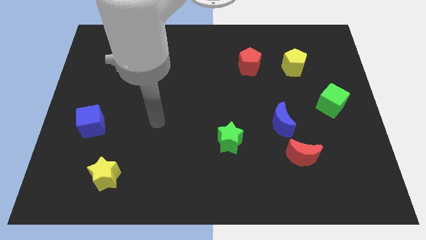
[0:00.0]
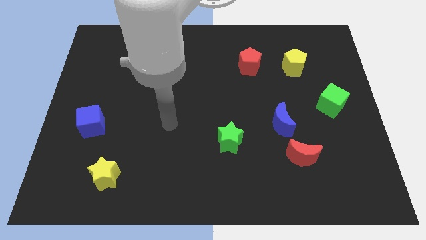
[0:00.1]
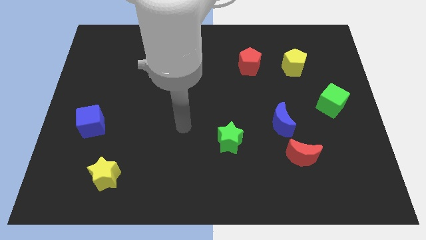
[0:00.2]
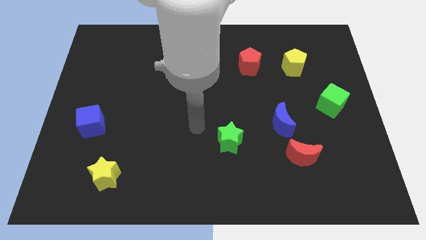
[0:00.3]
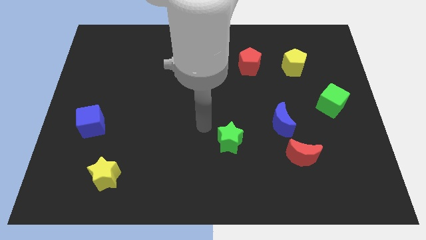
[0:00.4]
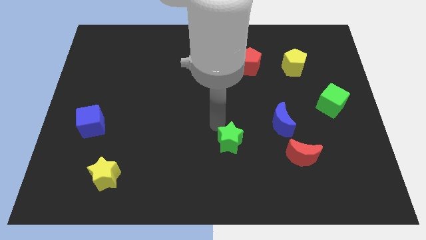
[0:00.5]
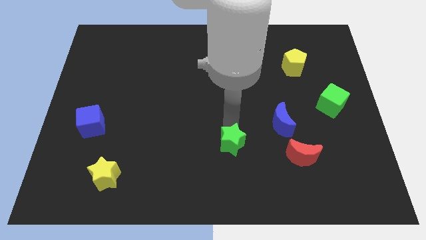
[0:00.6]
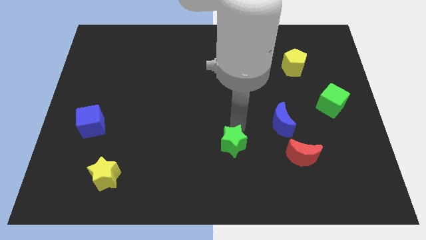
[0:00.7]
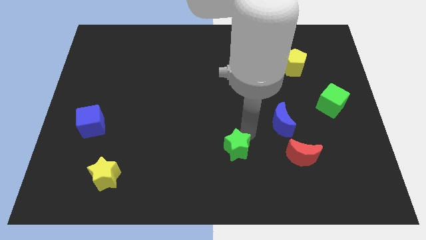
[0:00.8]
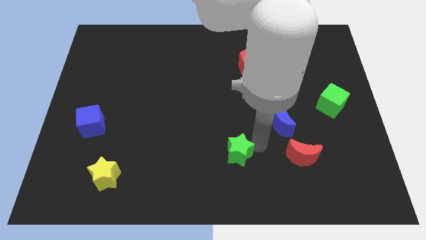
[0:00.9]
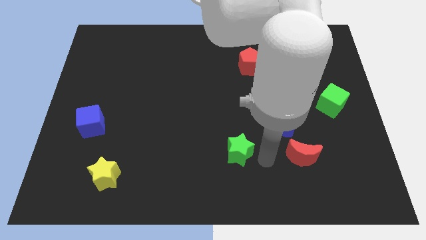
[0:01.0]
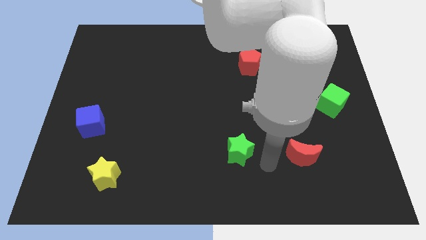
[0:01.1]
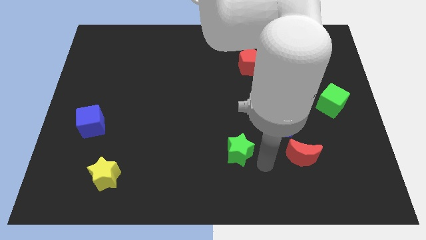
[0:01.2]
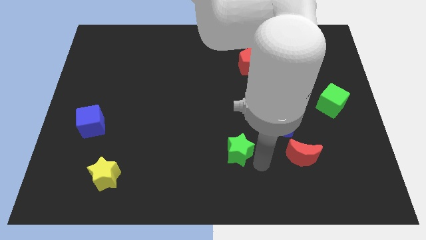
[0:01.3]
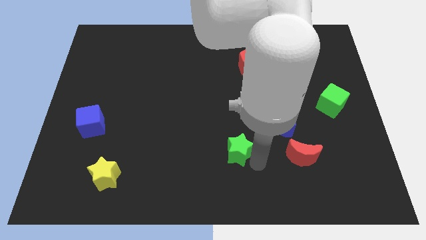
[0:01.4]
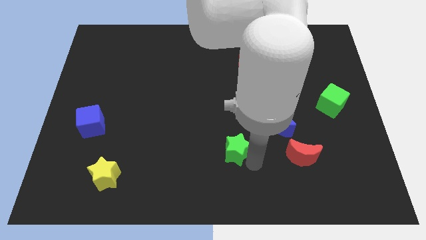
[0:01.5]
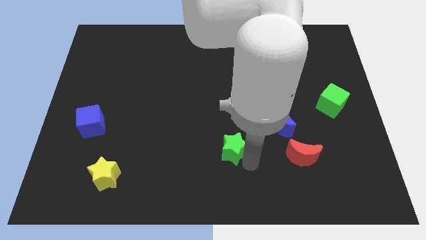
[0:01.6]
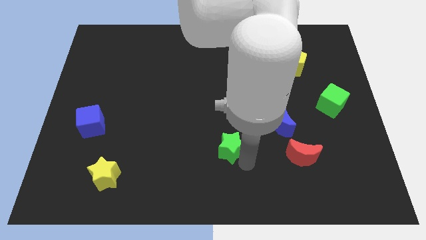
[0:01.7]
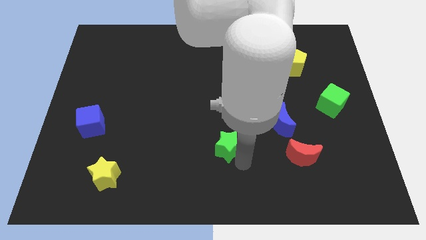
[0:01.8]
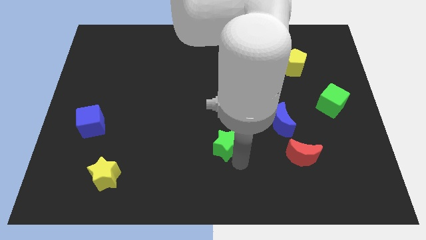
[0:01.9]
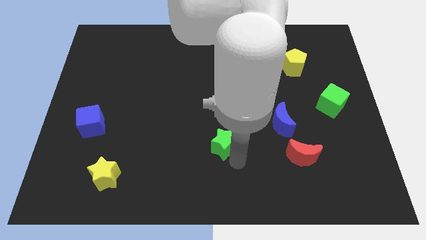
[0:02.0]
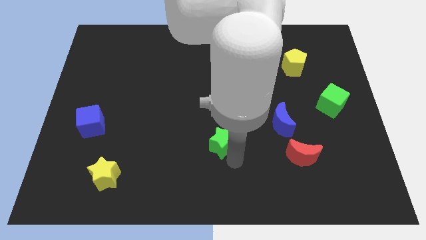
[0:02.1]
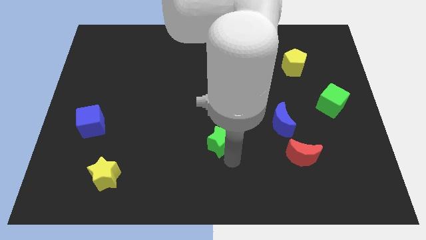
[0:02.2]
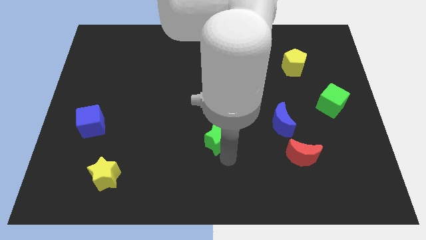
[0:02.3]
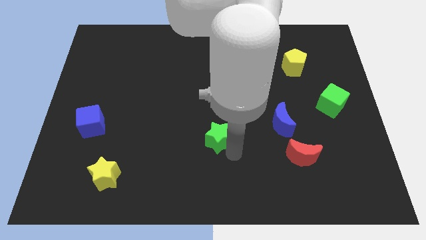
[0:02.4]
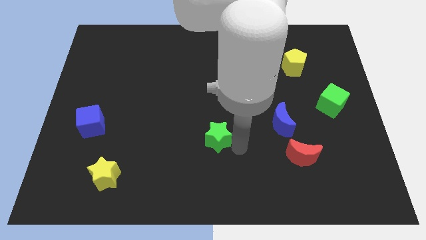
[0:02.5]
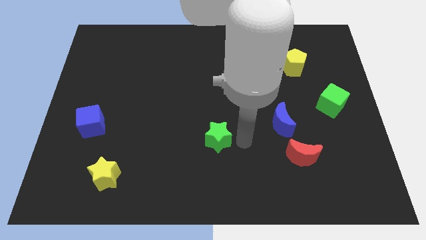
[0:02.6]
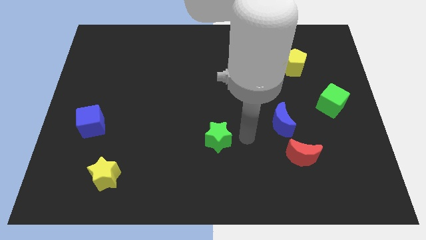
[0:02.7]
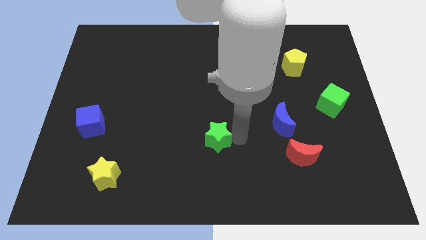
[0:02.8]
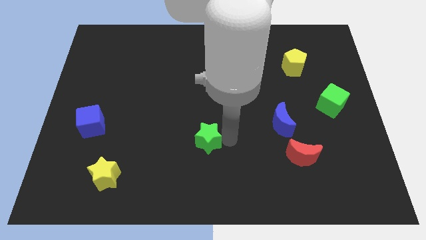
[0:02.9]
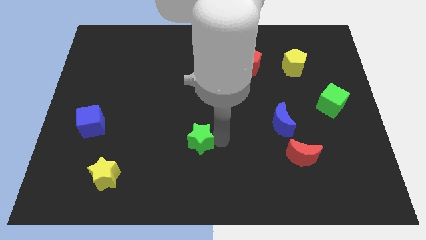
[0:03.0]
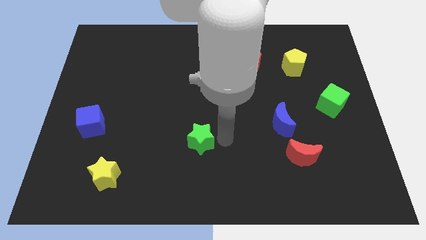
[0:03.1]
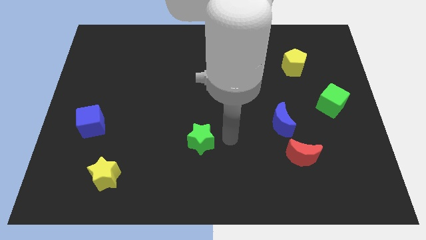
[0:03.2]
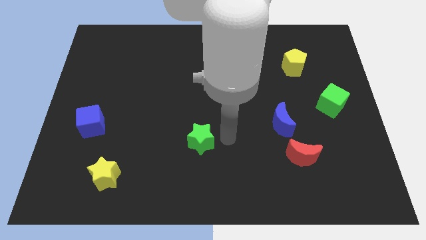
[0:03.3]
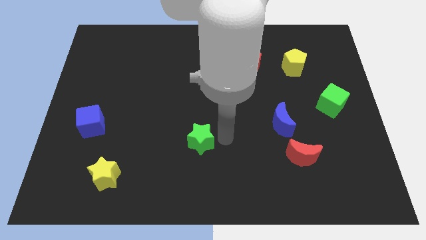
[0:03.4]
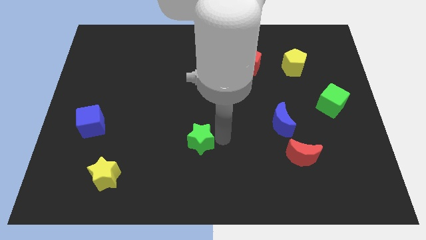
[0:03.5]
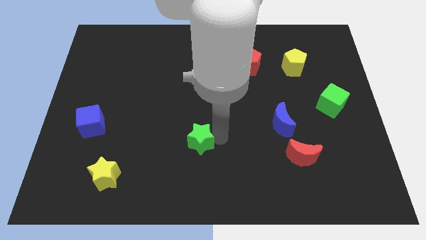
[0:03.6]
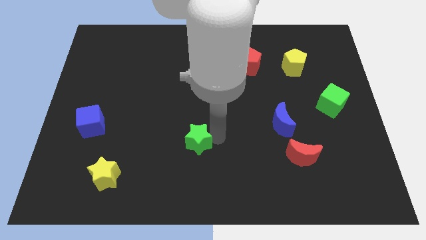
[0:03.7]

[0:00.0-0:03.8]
slightly push the green star left

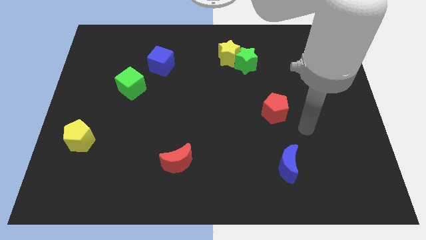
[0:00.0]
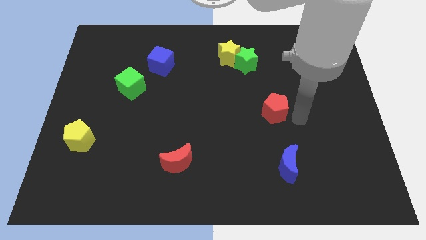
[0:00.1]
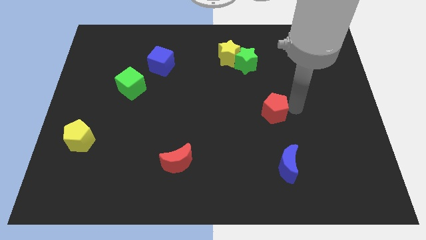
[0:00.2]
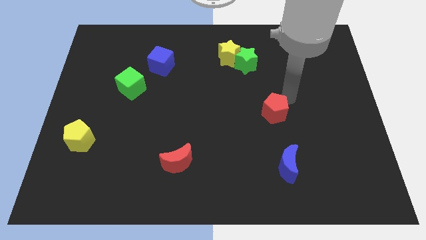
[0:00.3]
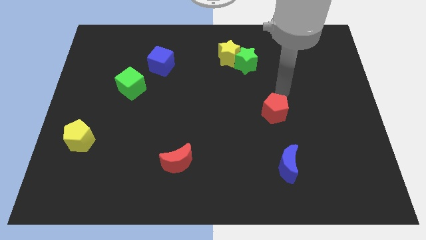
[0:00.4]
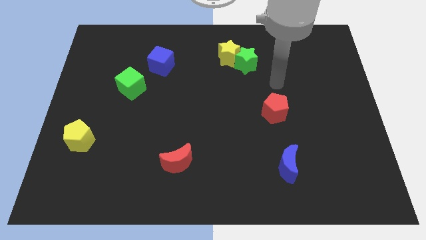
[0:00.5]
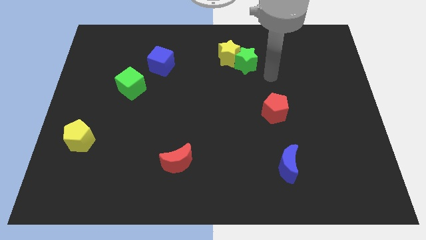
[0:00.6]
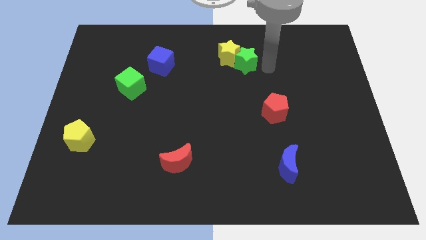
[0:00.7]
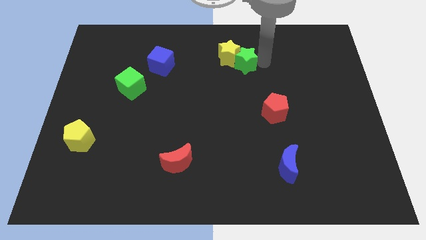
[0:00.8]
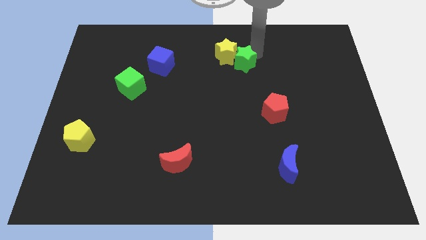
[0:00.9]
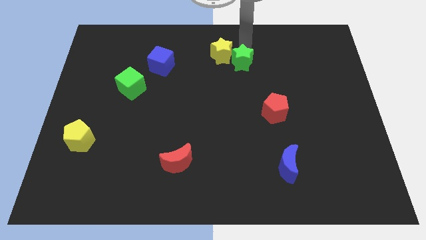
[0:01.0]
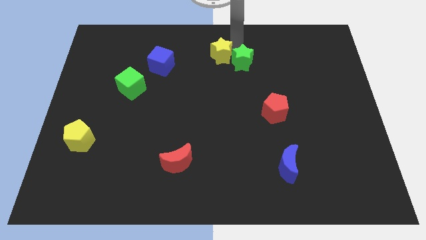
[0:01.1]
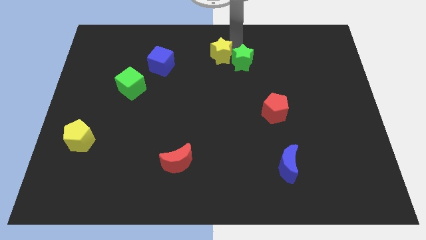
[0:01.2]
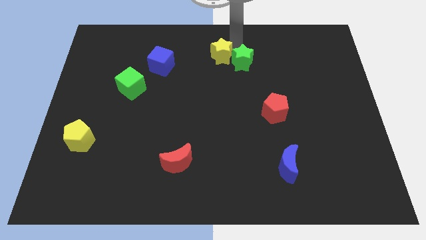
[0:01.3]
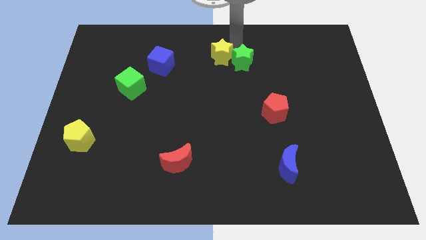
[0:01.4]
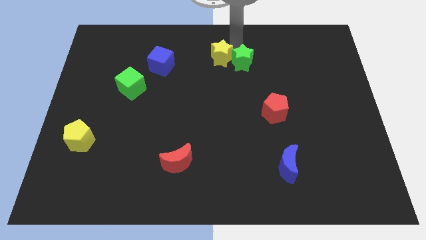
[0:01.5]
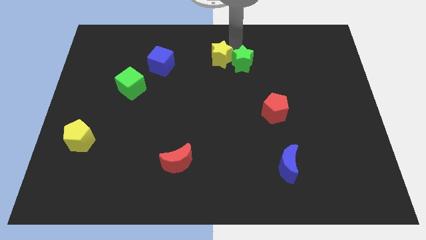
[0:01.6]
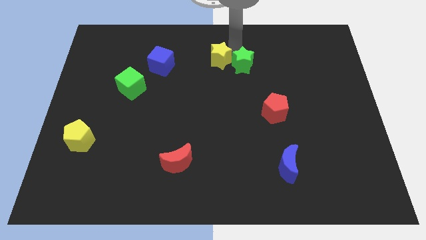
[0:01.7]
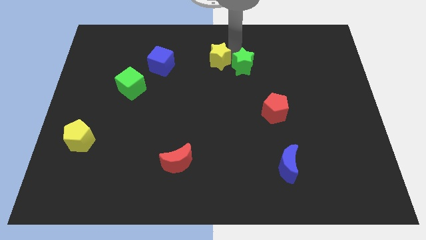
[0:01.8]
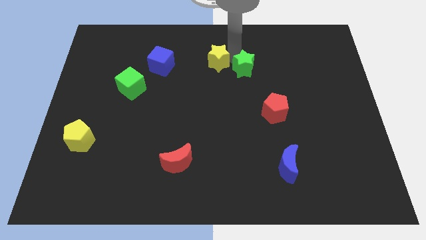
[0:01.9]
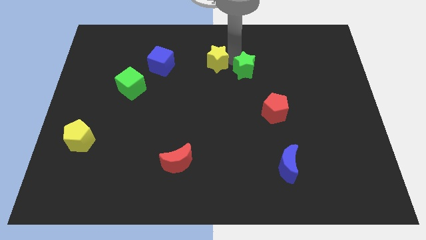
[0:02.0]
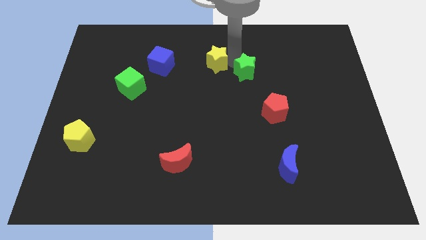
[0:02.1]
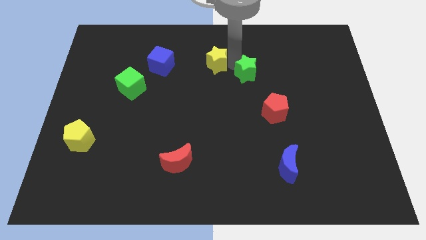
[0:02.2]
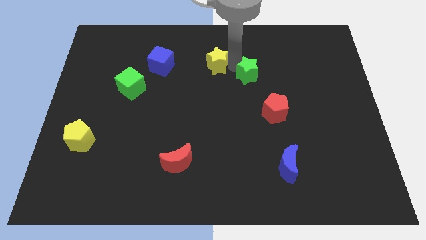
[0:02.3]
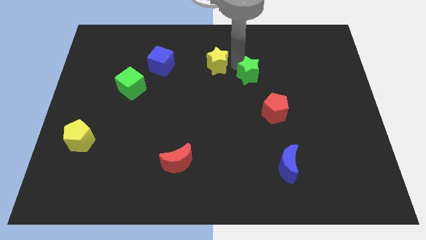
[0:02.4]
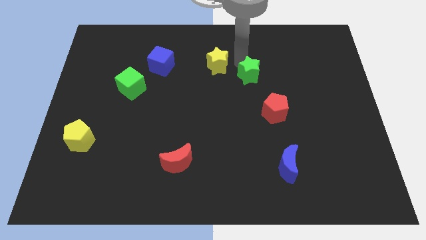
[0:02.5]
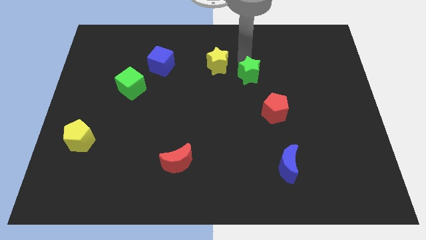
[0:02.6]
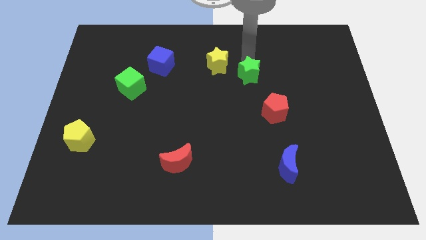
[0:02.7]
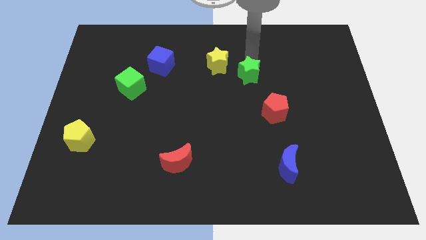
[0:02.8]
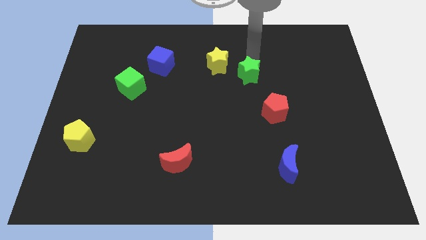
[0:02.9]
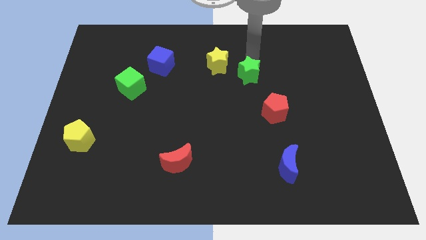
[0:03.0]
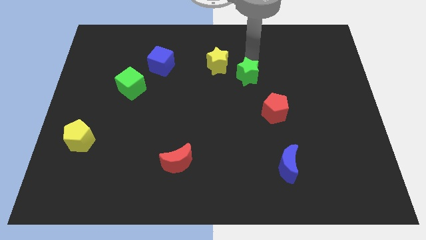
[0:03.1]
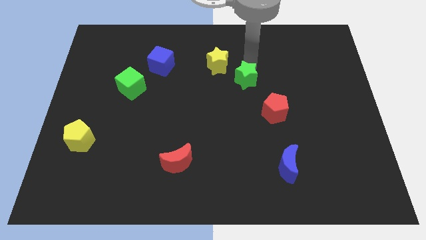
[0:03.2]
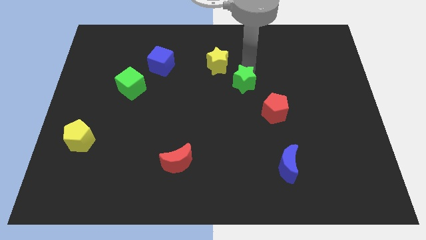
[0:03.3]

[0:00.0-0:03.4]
slide the green star down a little

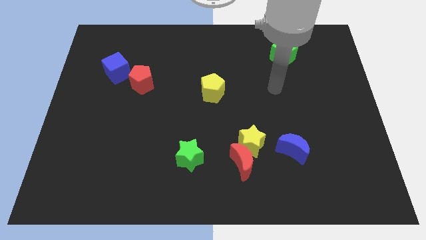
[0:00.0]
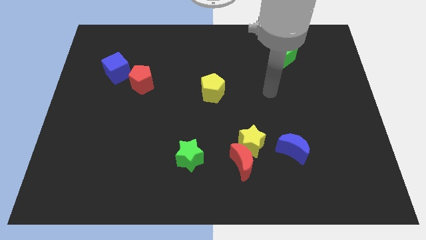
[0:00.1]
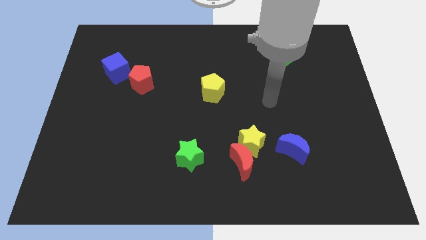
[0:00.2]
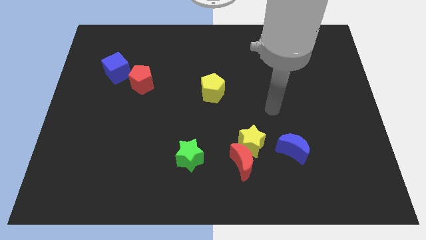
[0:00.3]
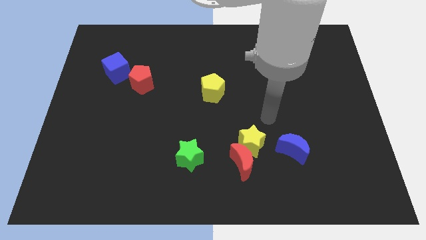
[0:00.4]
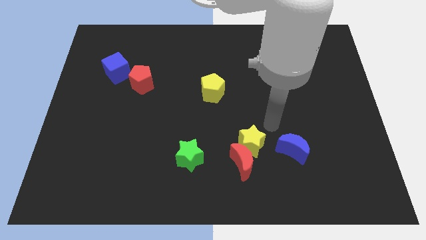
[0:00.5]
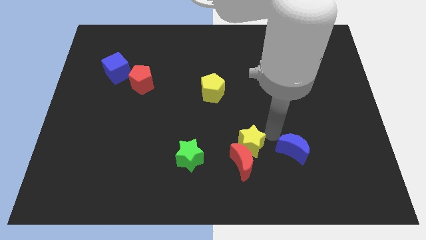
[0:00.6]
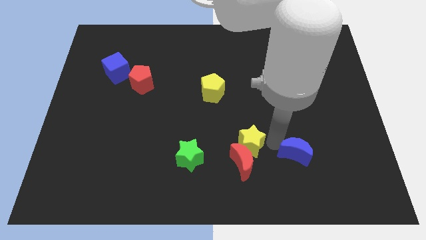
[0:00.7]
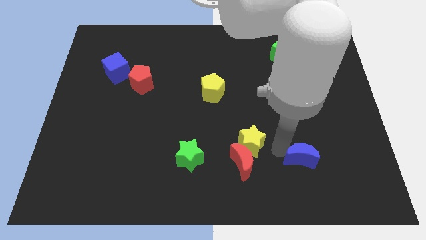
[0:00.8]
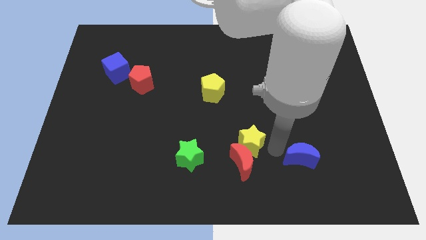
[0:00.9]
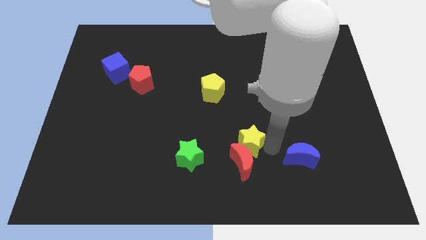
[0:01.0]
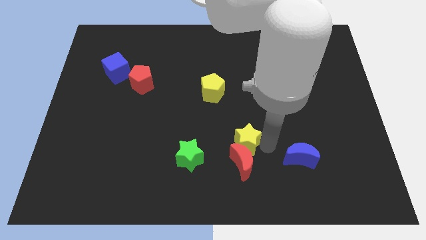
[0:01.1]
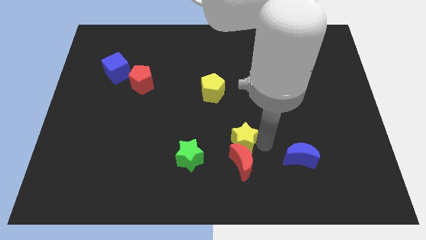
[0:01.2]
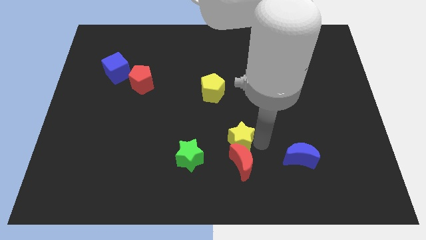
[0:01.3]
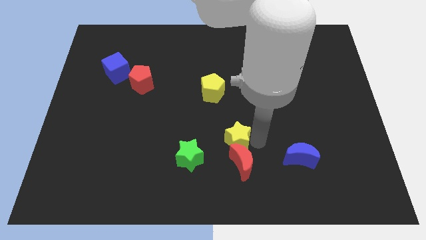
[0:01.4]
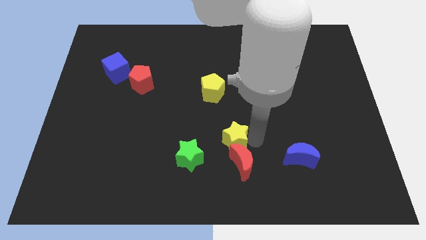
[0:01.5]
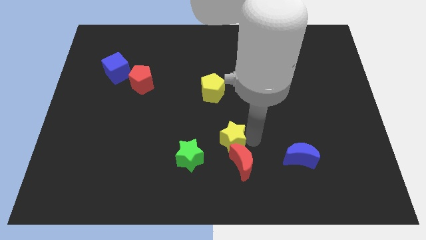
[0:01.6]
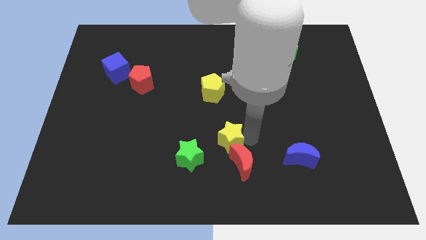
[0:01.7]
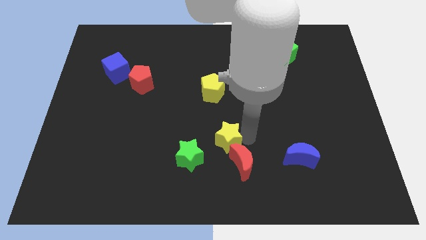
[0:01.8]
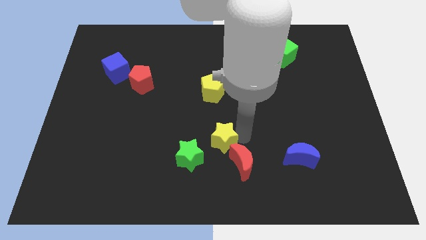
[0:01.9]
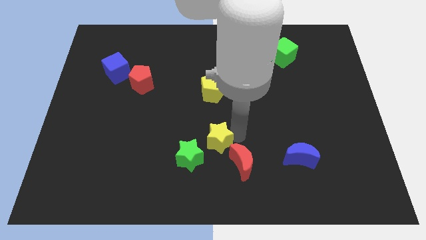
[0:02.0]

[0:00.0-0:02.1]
slightly slide the yellow star left
